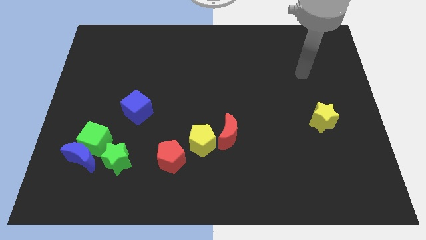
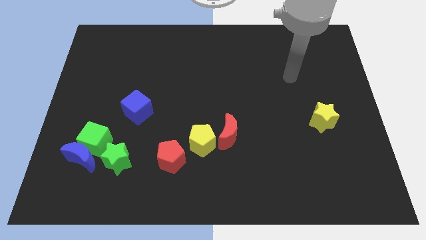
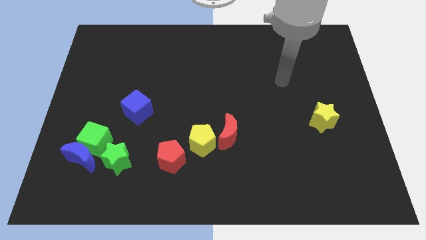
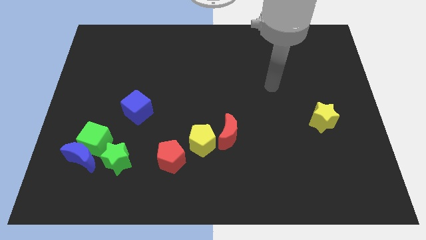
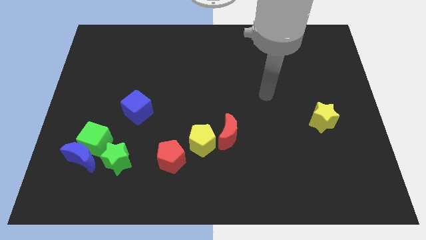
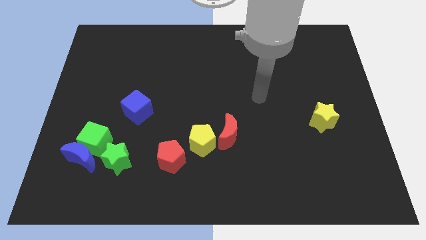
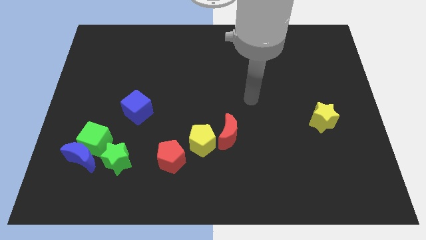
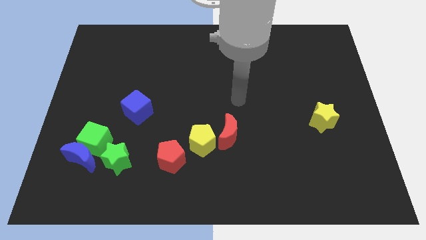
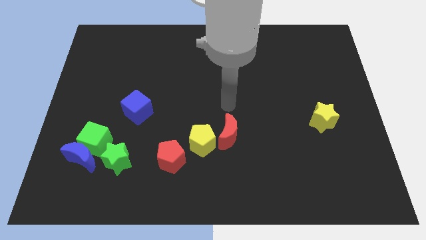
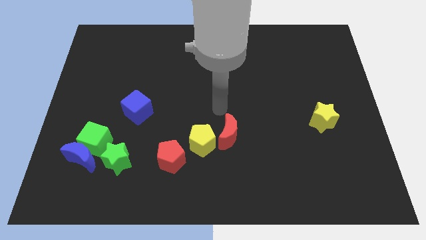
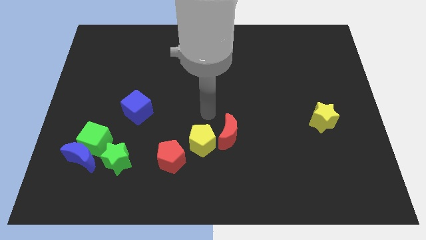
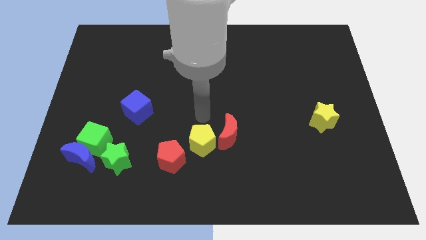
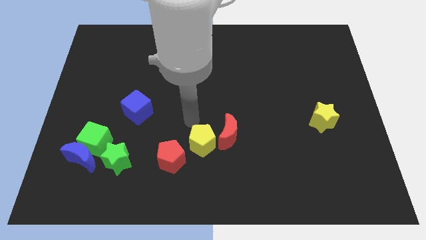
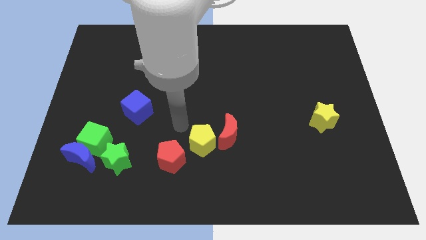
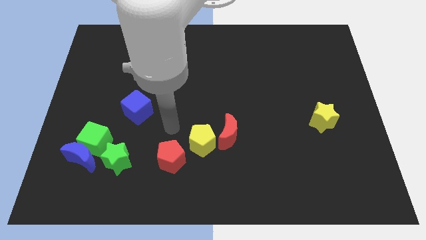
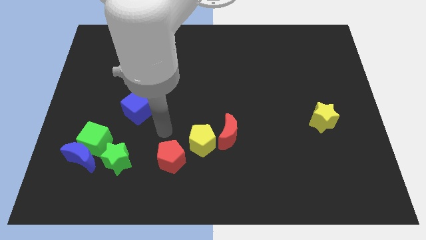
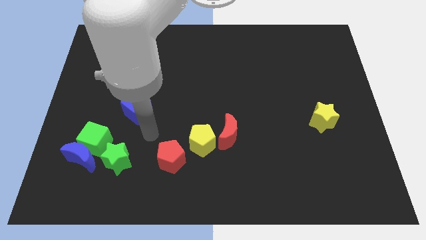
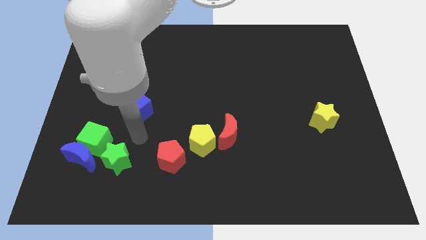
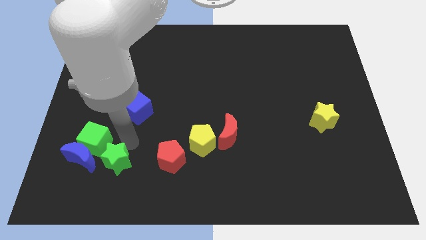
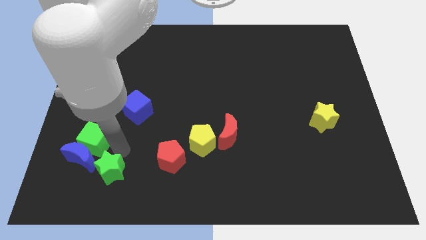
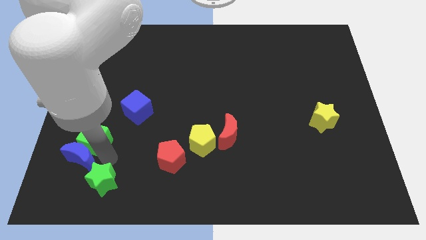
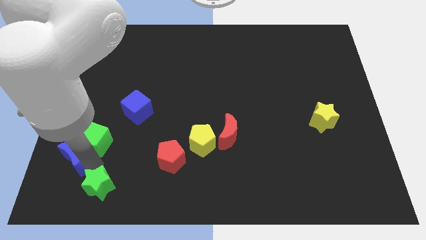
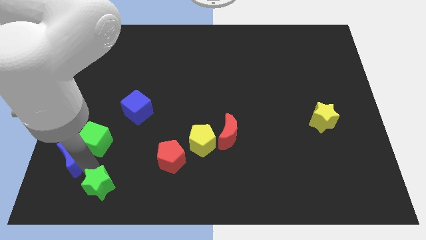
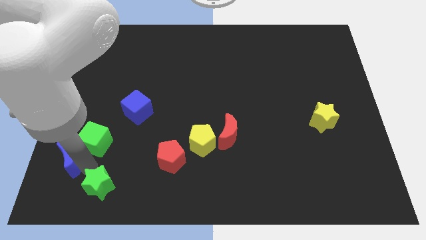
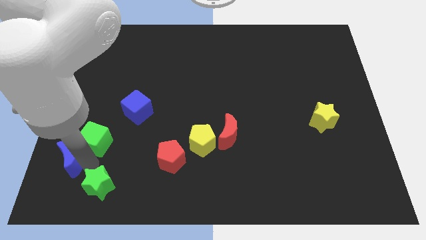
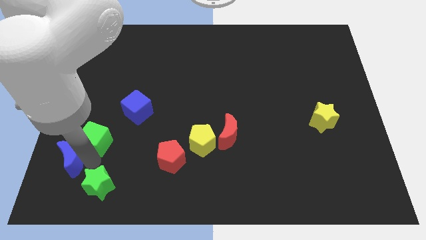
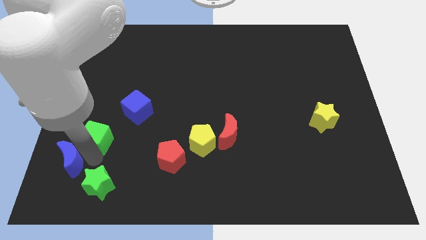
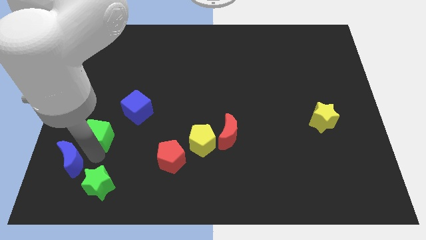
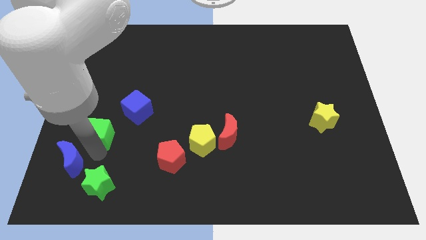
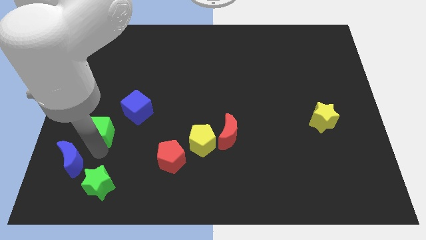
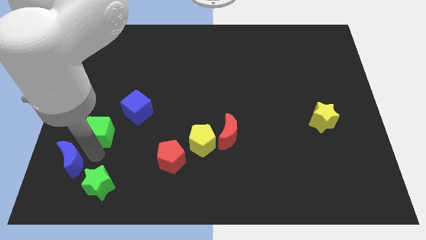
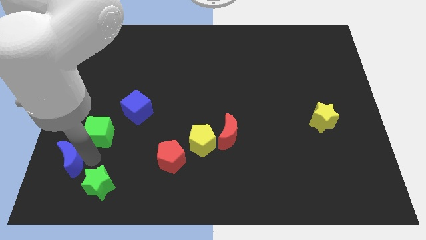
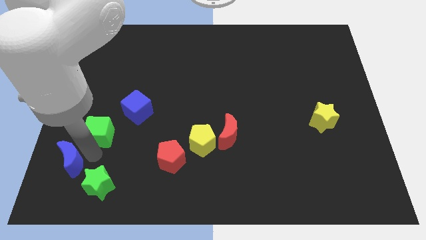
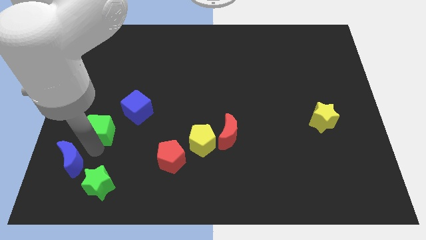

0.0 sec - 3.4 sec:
move the green cube away from the blue moon and green star

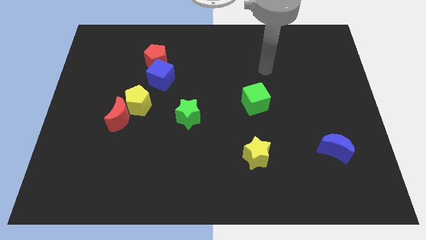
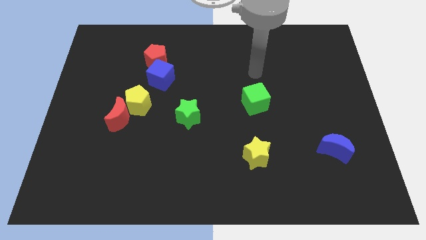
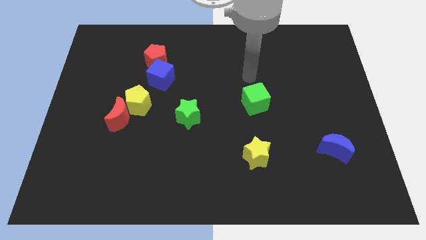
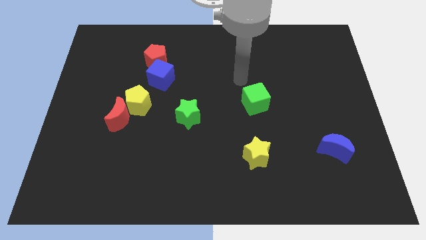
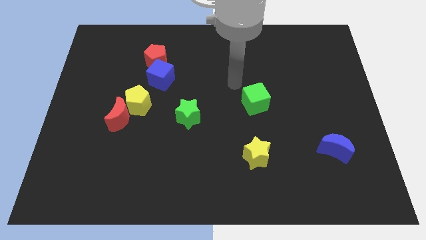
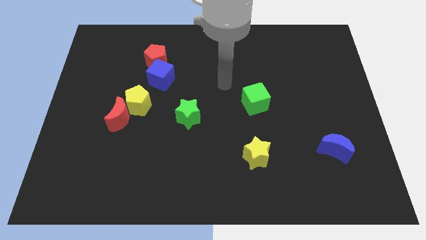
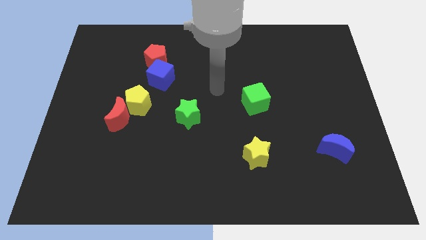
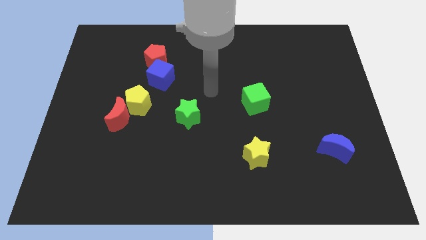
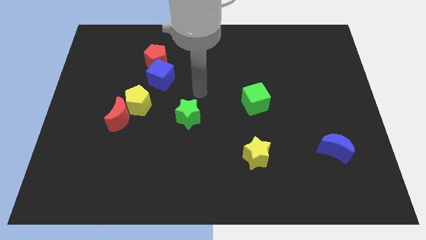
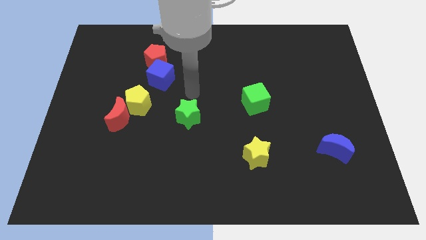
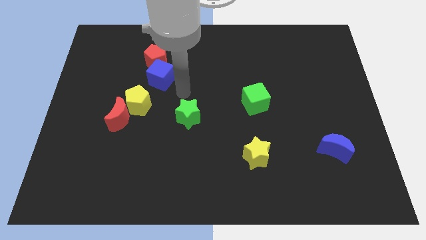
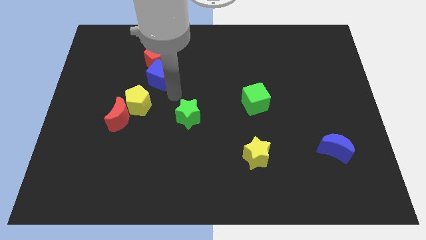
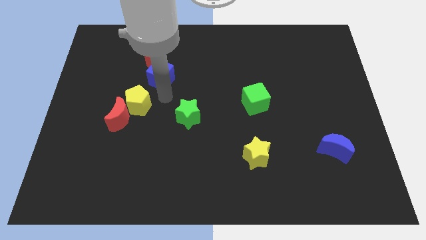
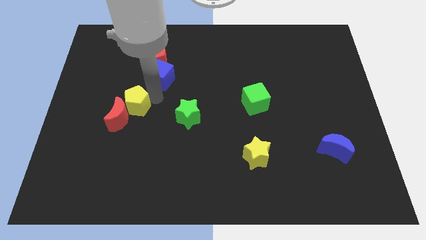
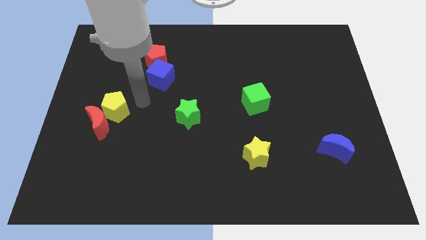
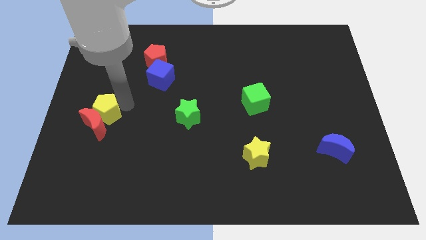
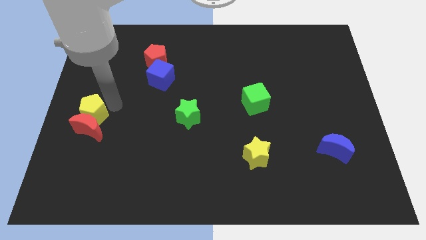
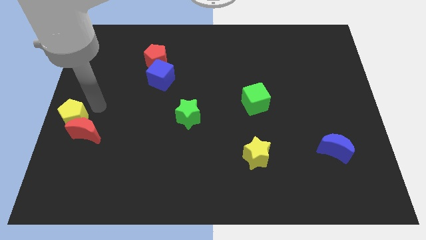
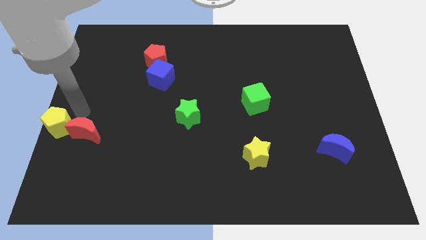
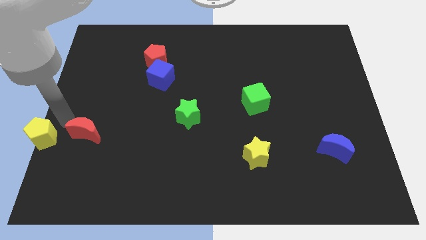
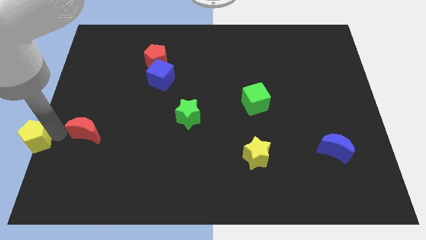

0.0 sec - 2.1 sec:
pull the red moon apart from the yellow pentagon

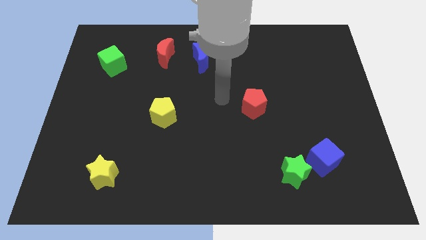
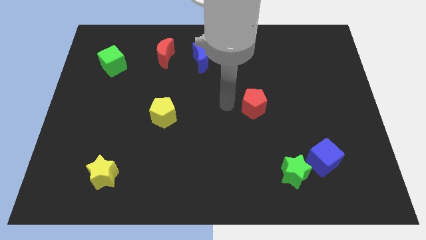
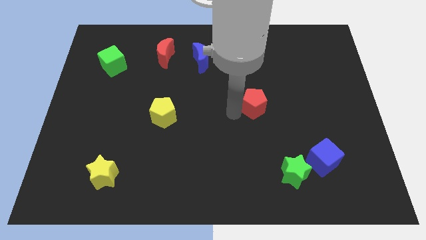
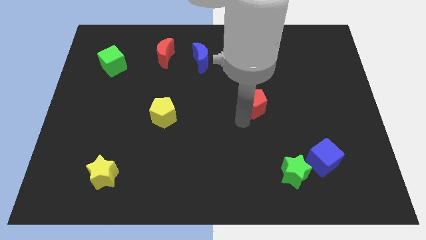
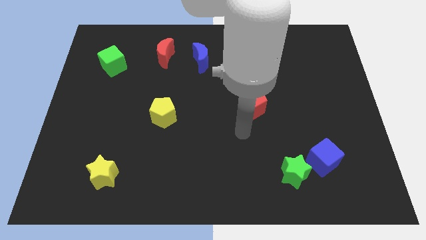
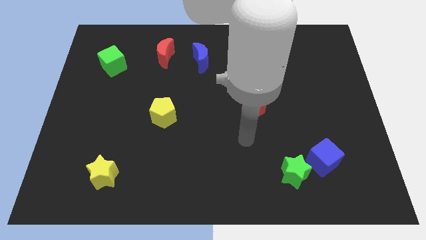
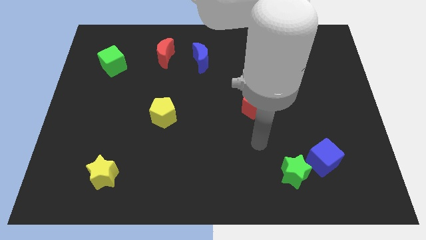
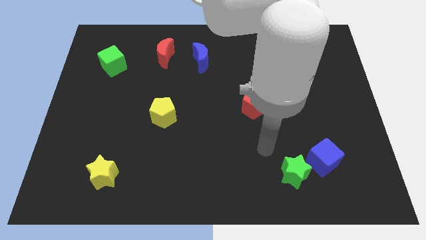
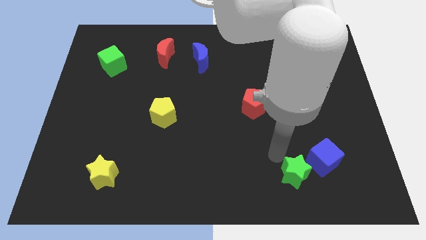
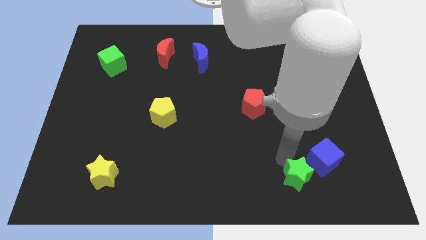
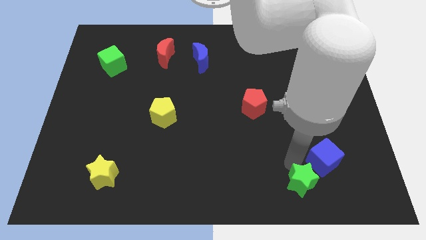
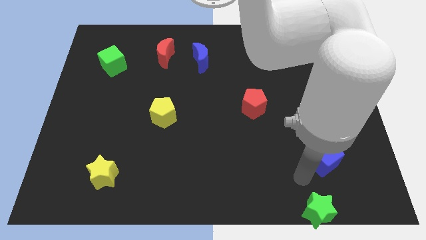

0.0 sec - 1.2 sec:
move the blue cube away from the green star

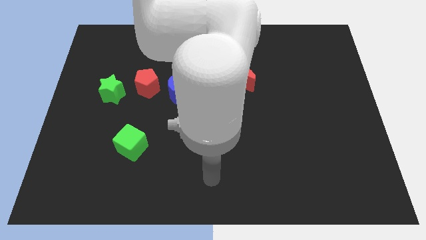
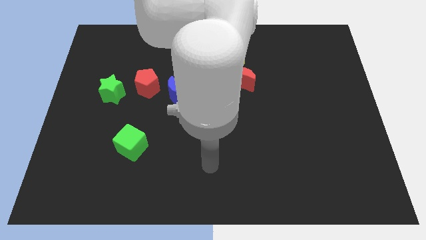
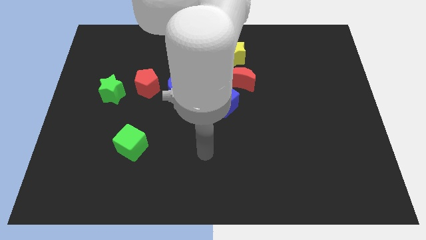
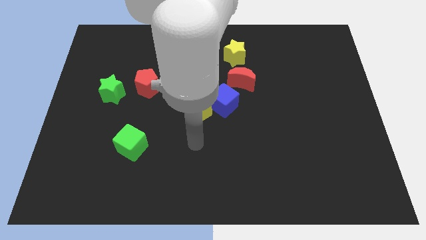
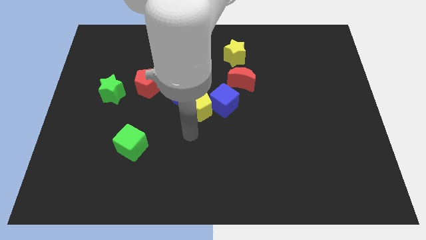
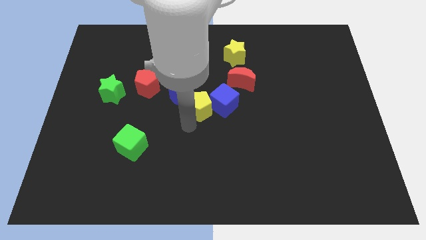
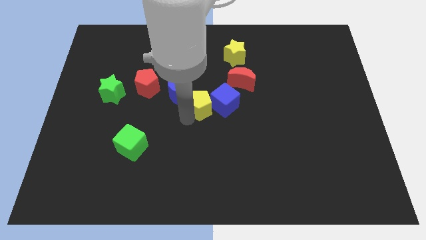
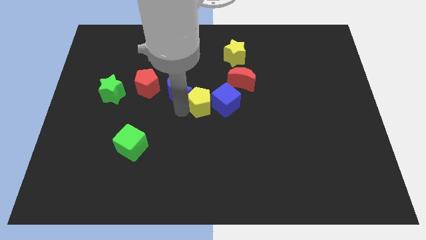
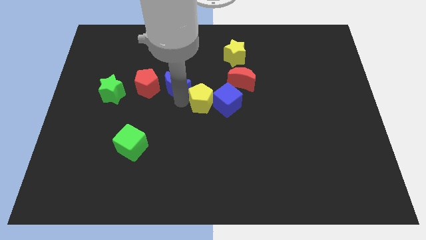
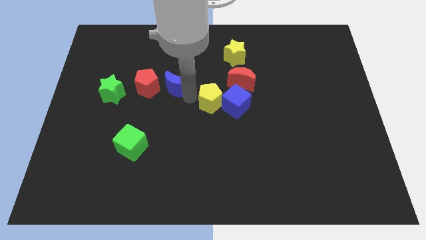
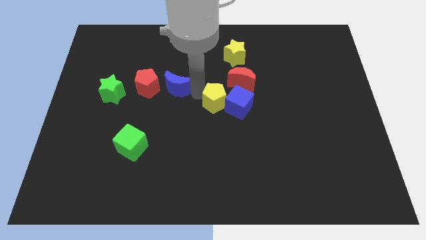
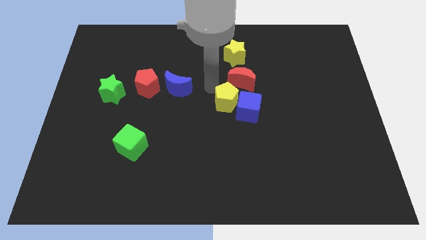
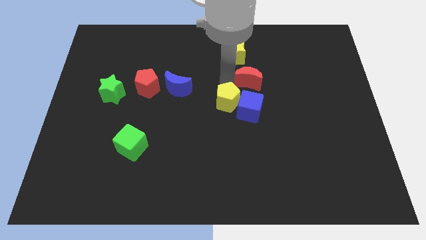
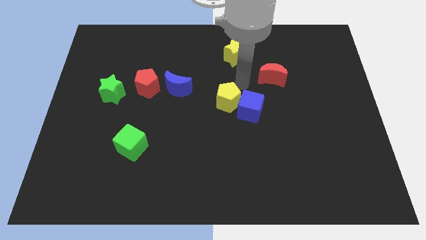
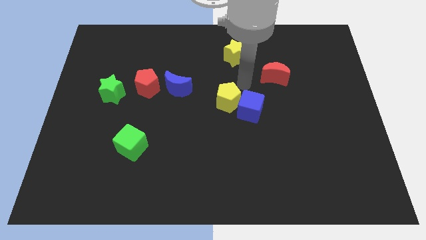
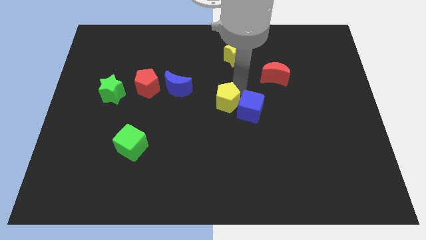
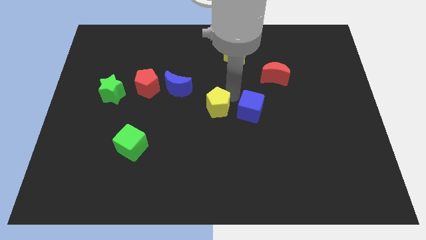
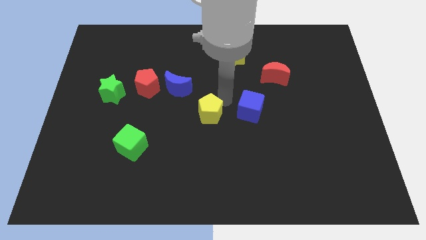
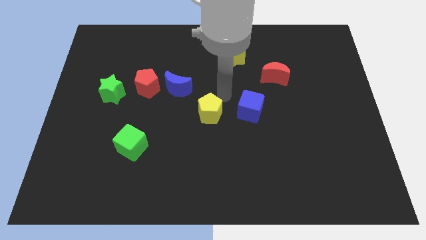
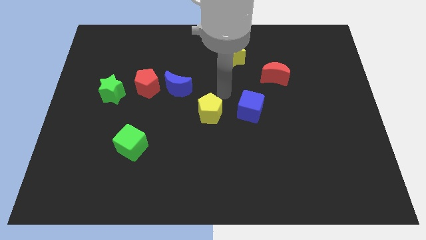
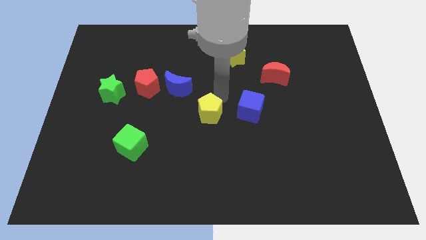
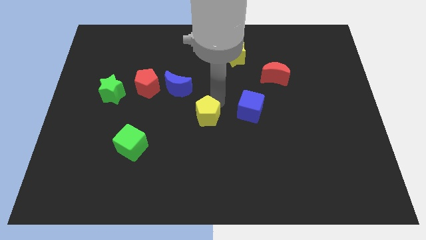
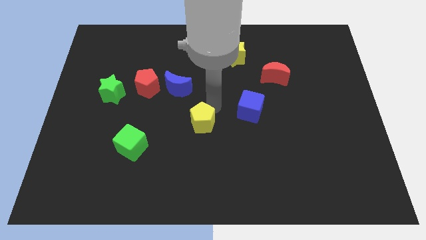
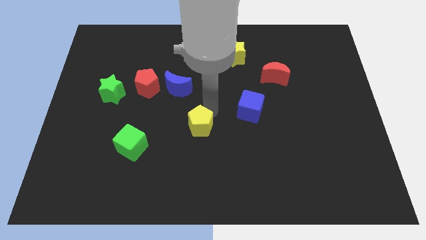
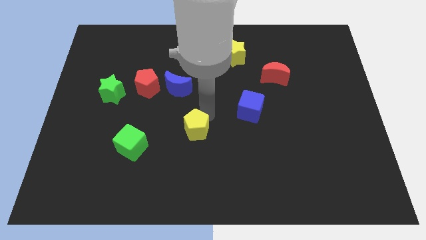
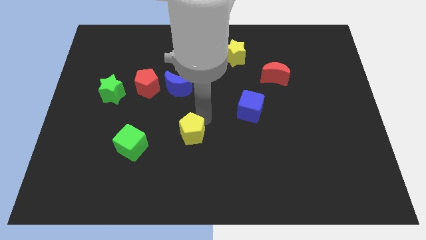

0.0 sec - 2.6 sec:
pull the yellow pentagon apart from the blue cube and blue moon

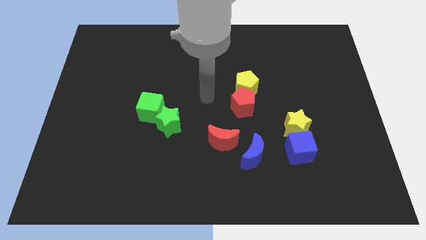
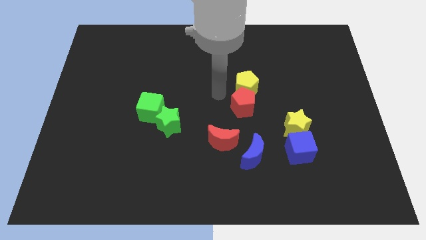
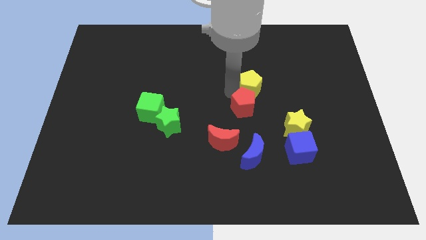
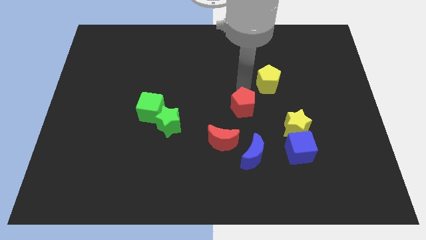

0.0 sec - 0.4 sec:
move the red pentagon away from the yellow pentagon
